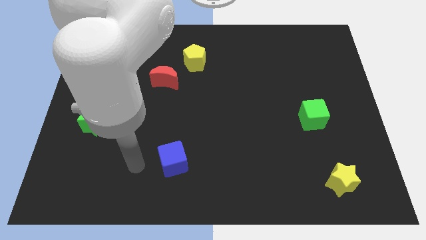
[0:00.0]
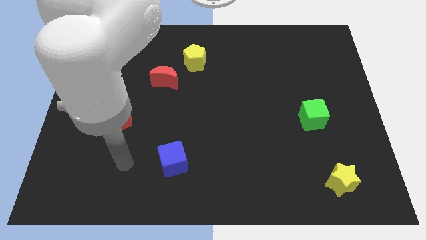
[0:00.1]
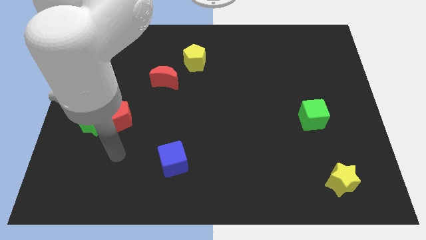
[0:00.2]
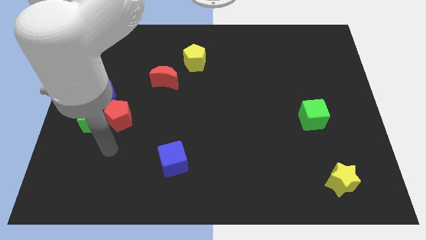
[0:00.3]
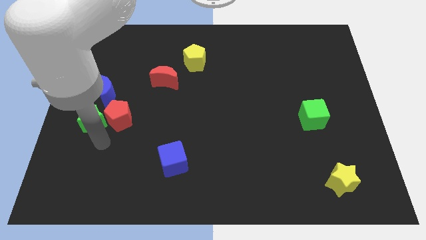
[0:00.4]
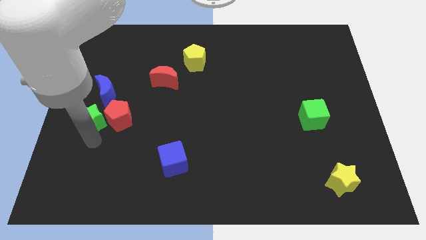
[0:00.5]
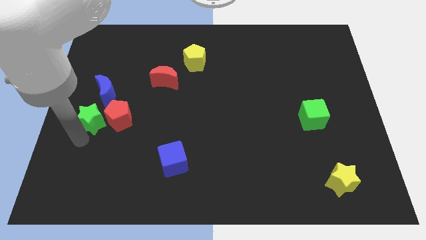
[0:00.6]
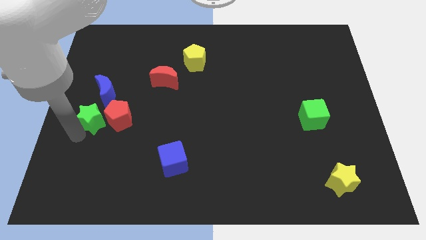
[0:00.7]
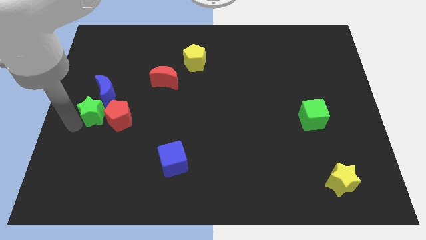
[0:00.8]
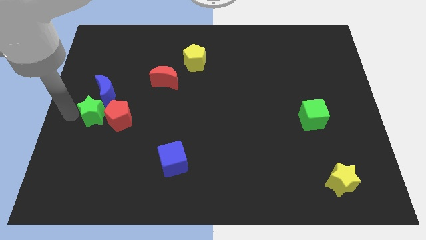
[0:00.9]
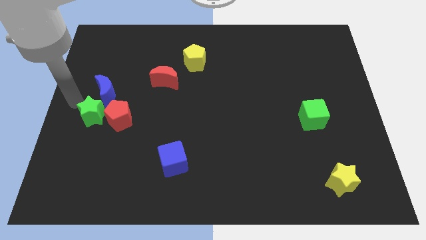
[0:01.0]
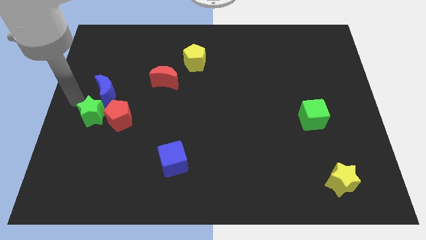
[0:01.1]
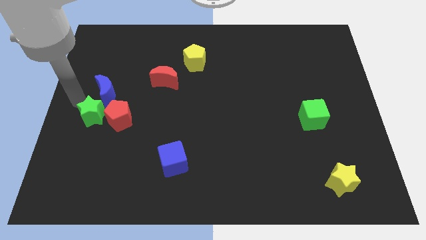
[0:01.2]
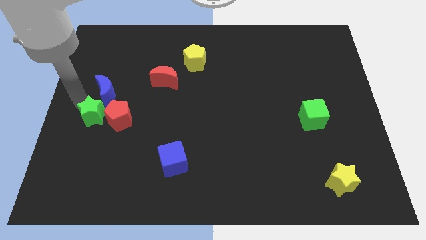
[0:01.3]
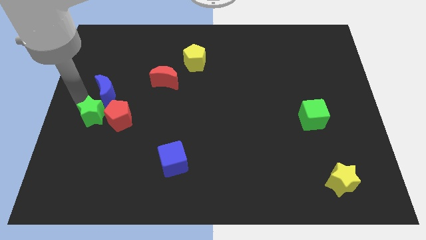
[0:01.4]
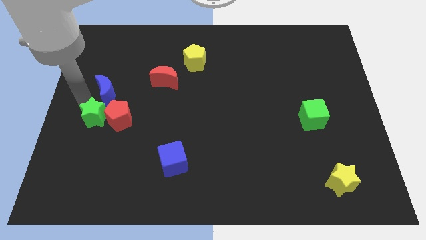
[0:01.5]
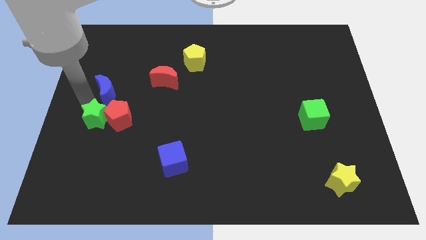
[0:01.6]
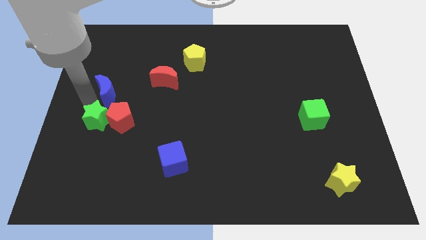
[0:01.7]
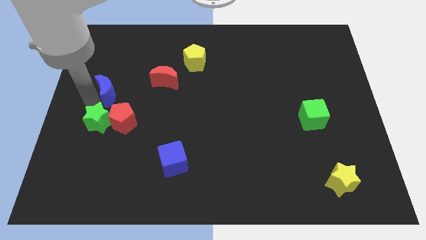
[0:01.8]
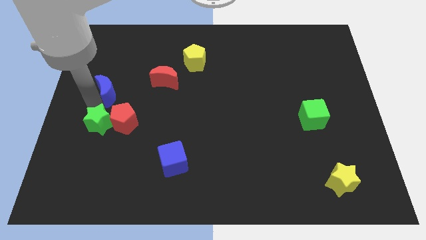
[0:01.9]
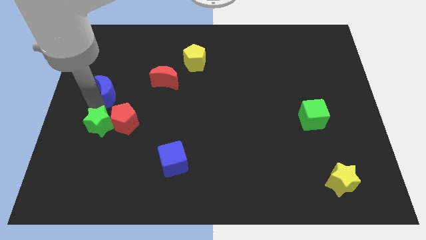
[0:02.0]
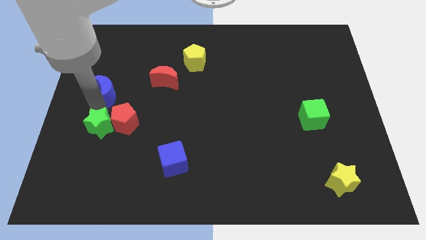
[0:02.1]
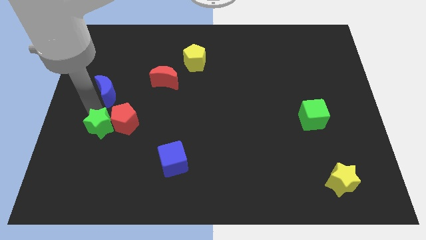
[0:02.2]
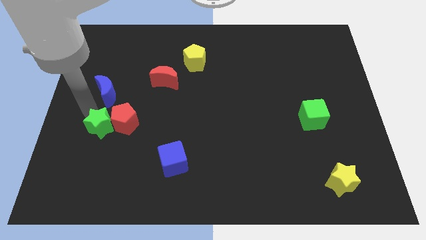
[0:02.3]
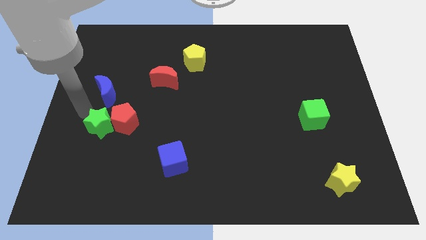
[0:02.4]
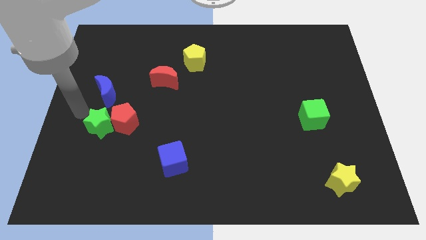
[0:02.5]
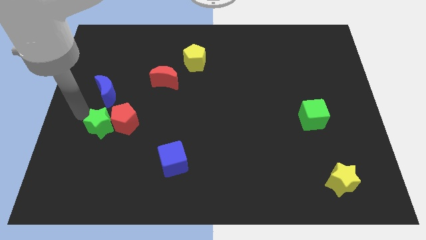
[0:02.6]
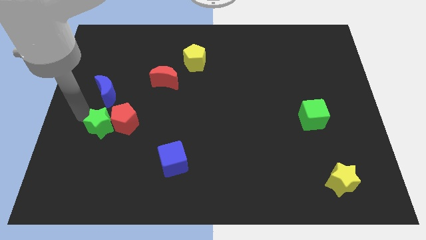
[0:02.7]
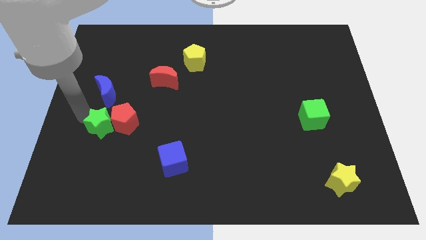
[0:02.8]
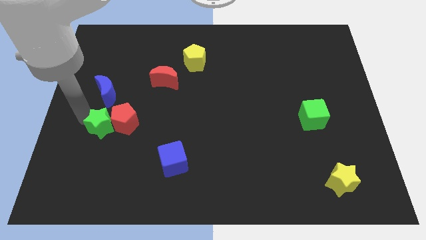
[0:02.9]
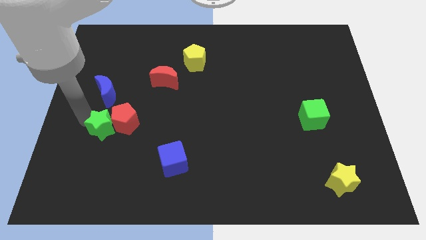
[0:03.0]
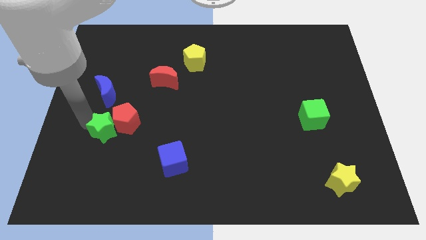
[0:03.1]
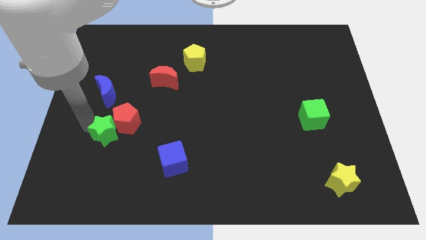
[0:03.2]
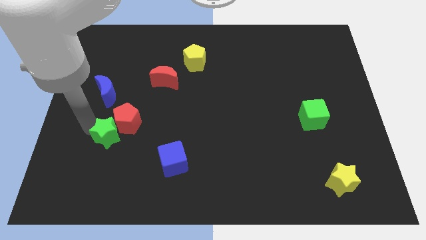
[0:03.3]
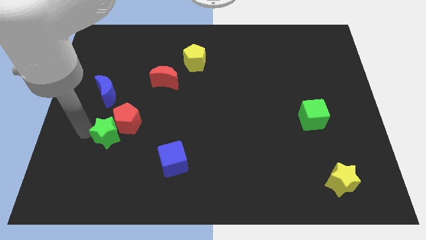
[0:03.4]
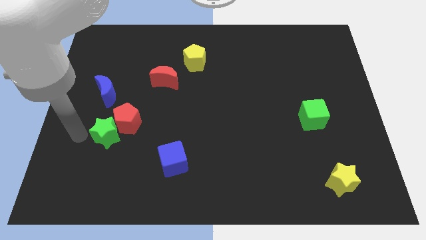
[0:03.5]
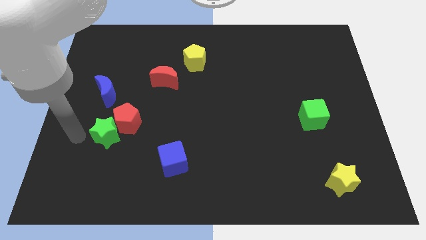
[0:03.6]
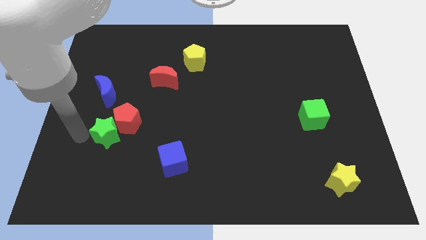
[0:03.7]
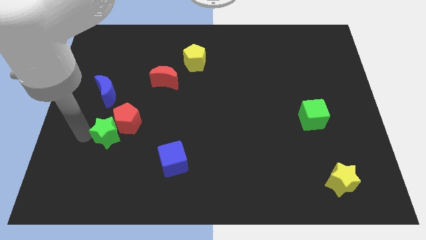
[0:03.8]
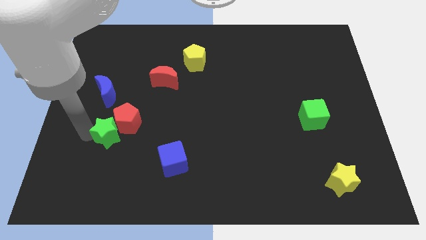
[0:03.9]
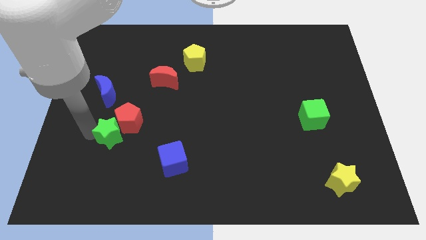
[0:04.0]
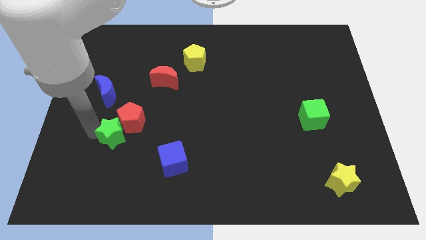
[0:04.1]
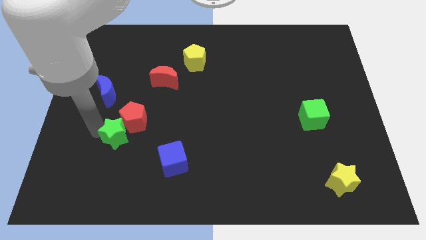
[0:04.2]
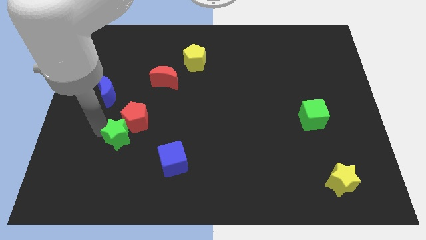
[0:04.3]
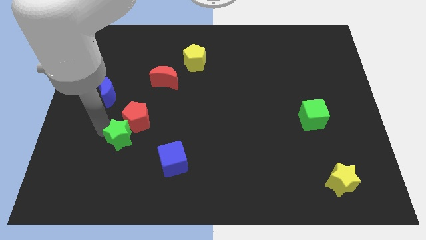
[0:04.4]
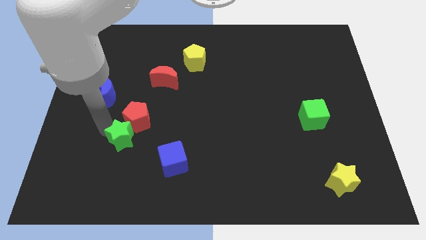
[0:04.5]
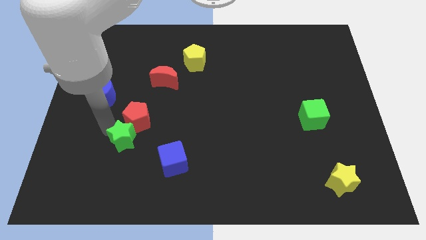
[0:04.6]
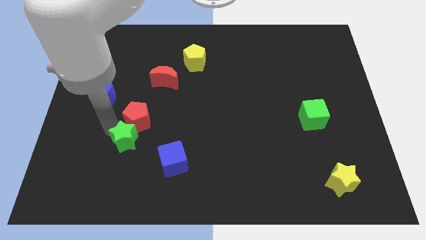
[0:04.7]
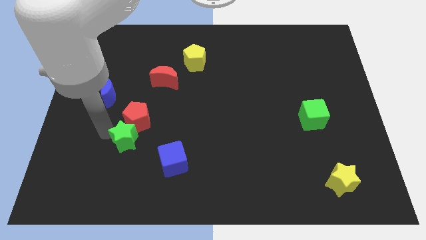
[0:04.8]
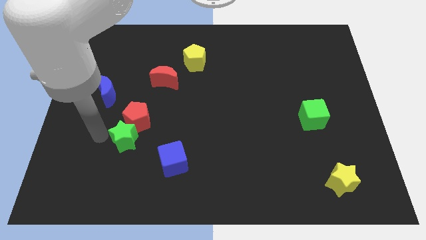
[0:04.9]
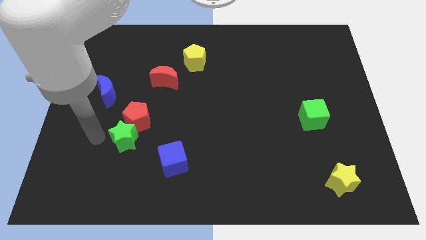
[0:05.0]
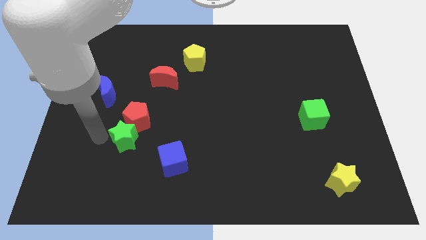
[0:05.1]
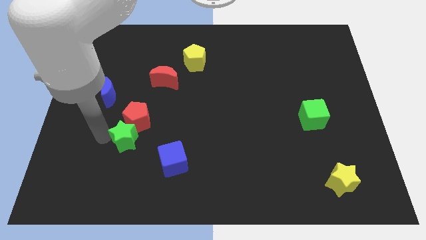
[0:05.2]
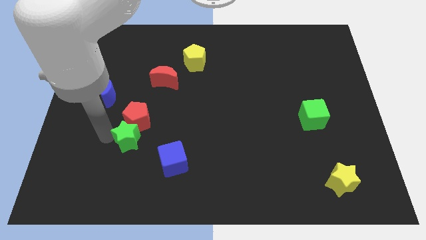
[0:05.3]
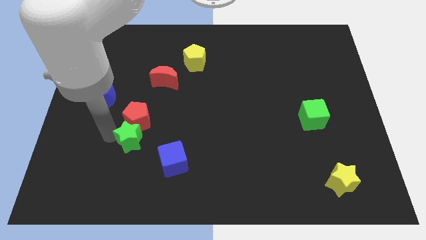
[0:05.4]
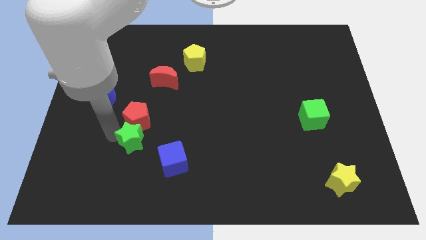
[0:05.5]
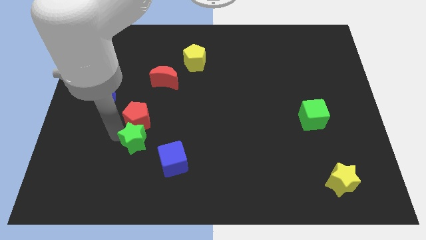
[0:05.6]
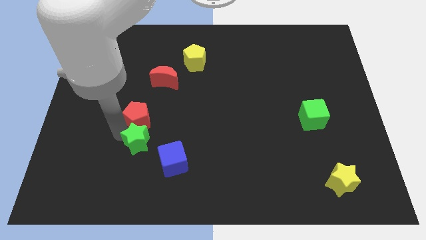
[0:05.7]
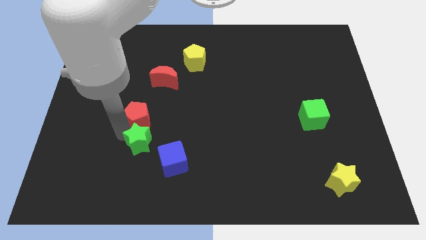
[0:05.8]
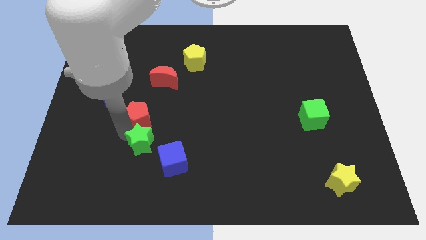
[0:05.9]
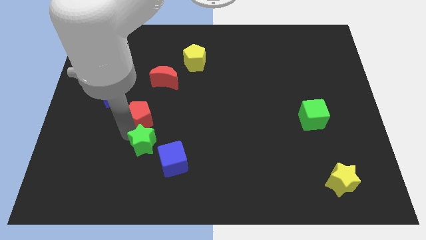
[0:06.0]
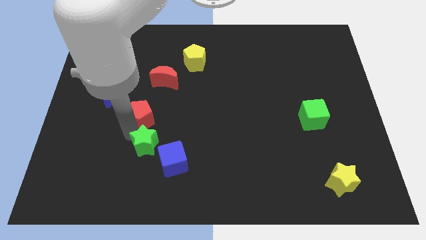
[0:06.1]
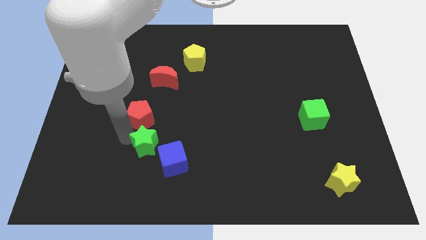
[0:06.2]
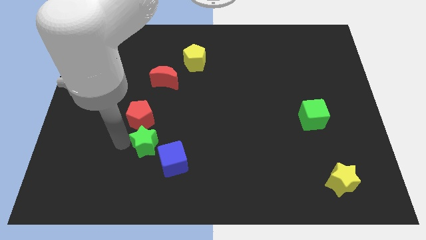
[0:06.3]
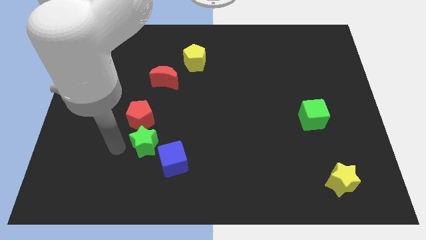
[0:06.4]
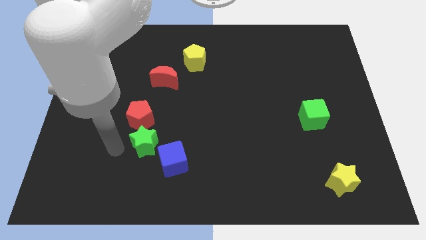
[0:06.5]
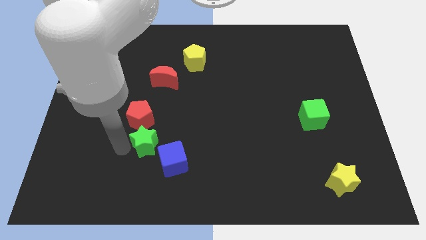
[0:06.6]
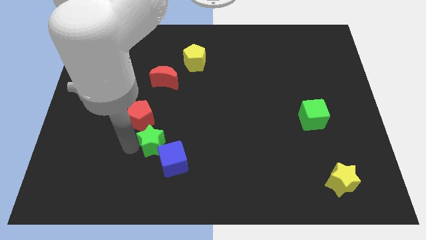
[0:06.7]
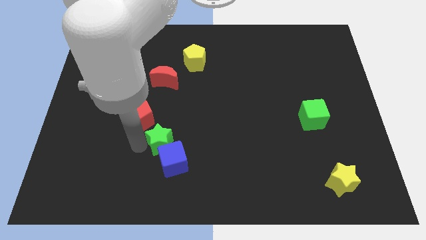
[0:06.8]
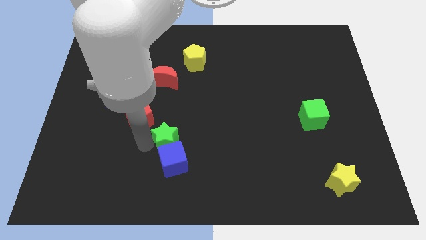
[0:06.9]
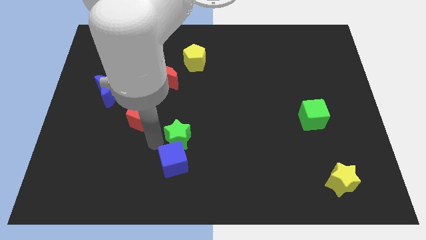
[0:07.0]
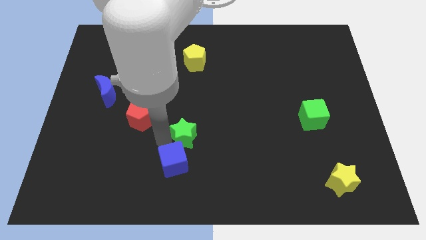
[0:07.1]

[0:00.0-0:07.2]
move the green star to the right

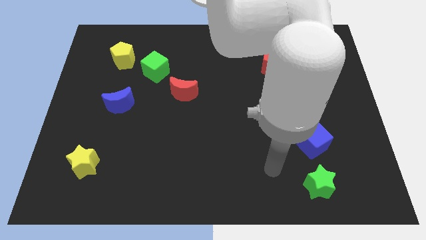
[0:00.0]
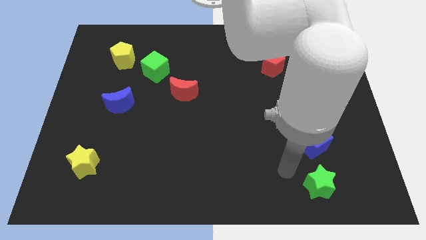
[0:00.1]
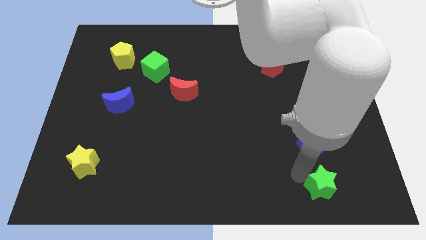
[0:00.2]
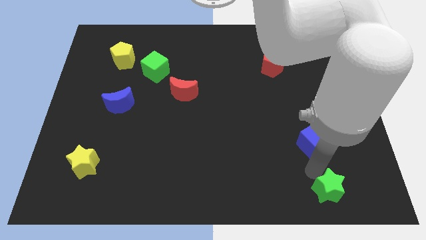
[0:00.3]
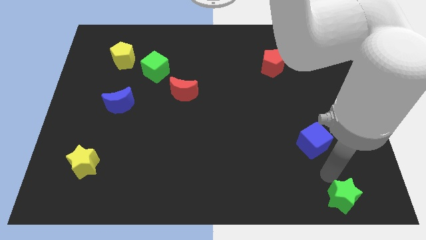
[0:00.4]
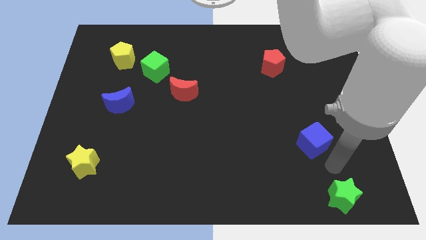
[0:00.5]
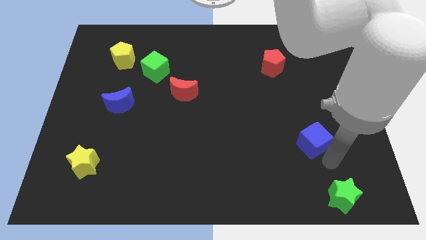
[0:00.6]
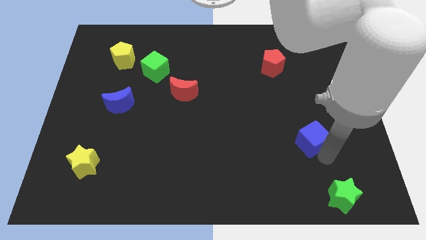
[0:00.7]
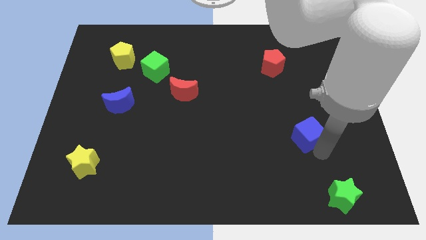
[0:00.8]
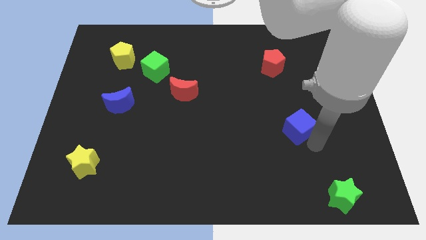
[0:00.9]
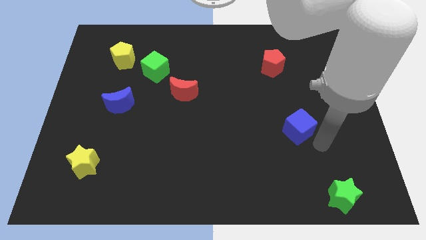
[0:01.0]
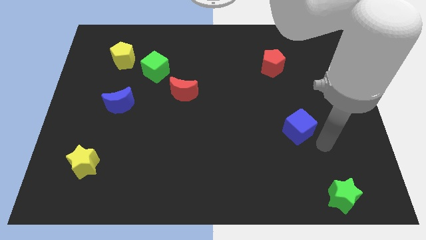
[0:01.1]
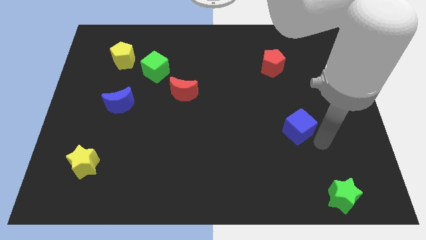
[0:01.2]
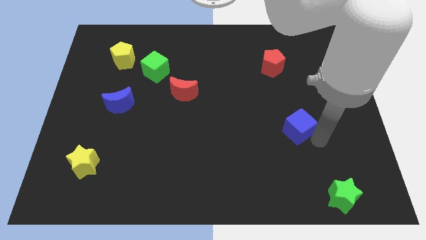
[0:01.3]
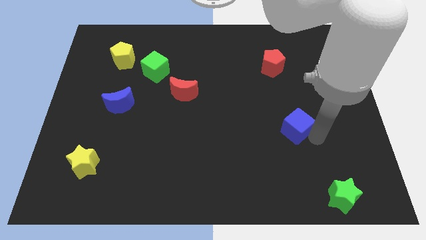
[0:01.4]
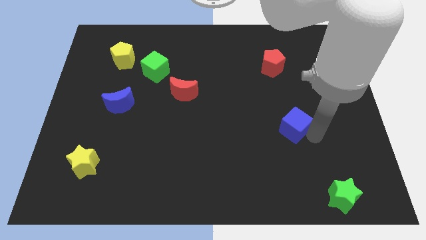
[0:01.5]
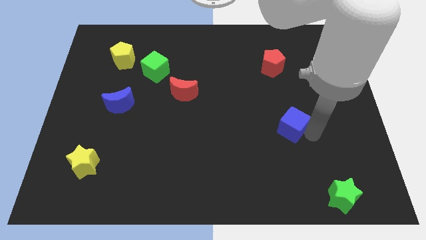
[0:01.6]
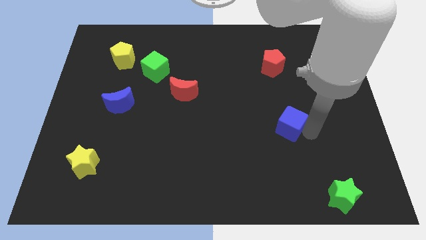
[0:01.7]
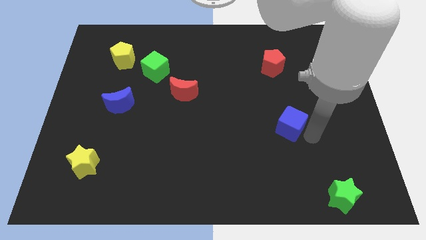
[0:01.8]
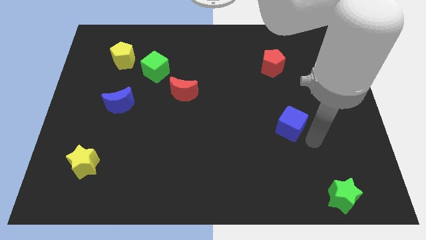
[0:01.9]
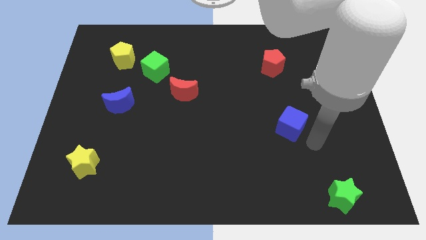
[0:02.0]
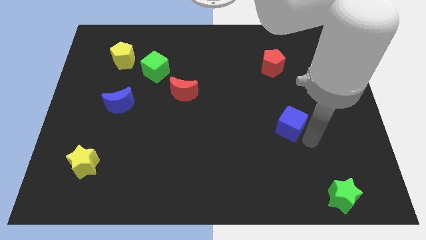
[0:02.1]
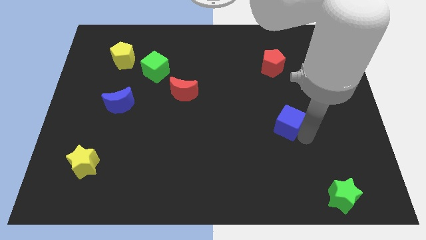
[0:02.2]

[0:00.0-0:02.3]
slide the blue cube diagonally upwards and left a little
